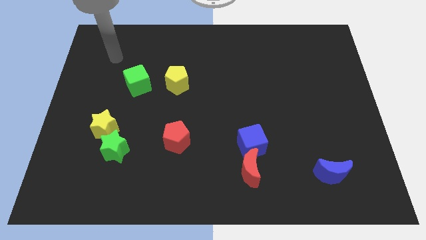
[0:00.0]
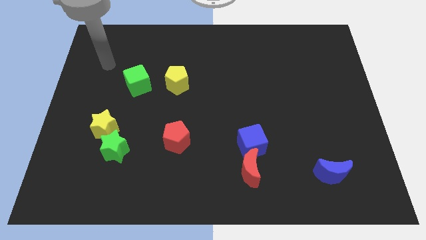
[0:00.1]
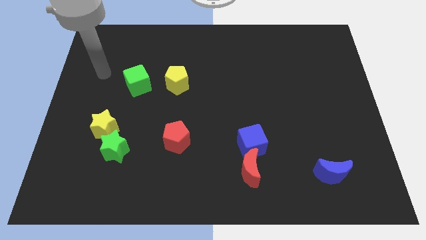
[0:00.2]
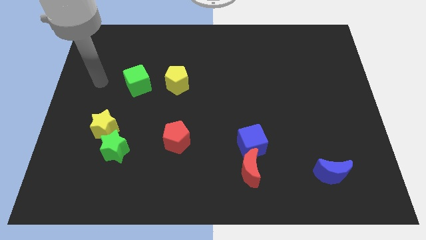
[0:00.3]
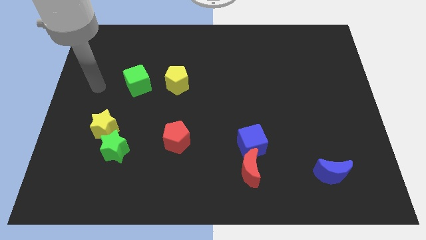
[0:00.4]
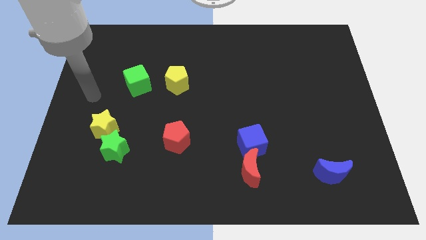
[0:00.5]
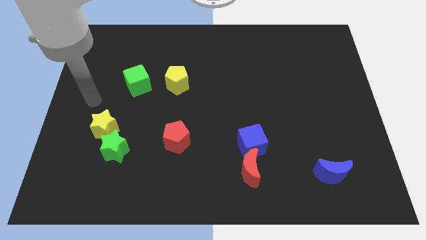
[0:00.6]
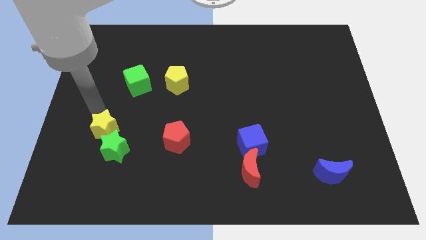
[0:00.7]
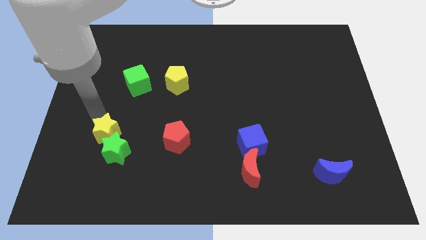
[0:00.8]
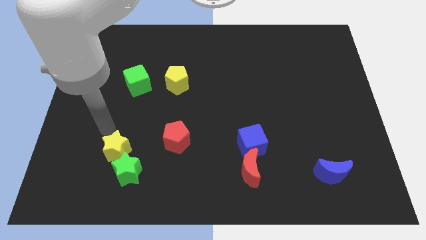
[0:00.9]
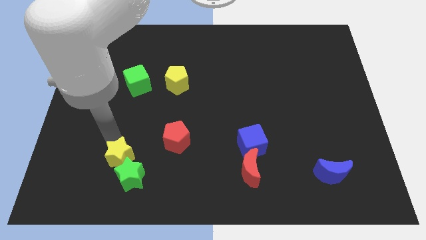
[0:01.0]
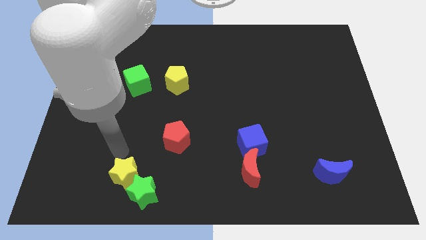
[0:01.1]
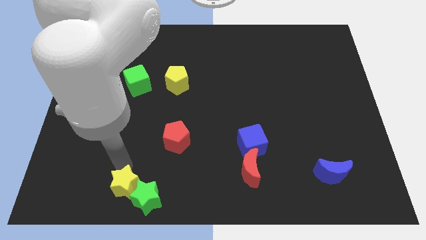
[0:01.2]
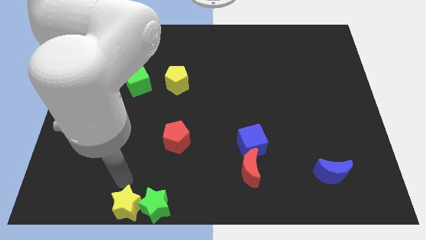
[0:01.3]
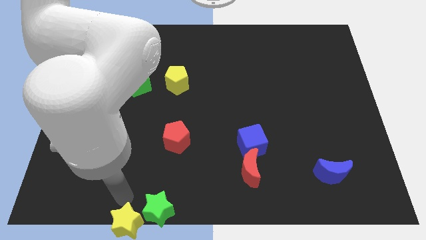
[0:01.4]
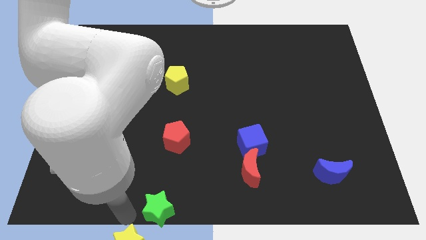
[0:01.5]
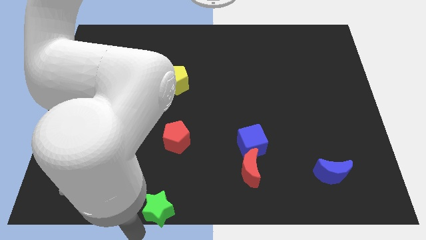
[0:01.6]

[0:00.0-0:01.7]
pull the green star apart from the yellow star

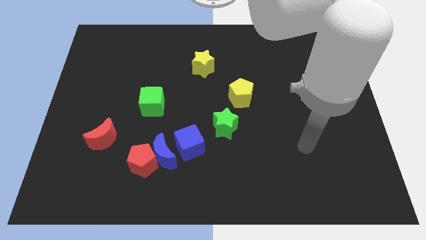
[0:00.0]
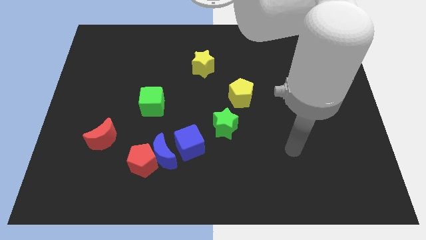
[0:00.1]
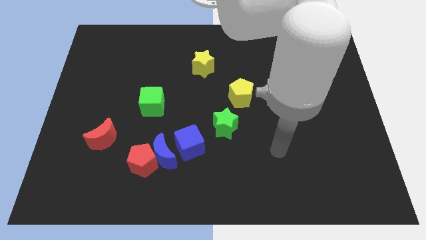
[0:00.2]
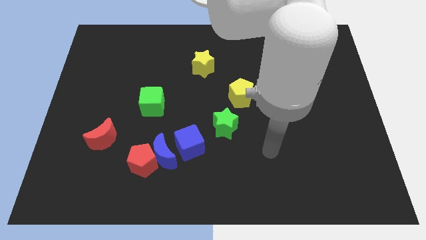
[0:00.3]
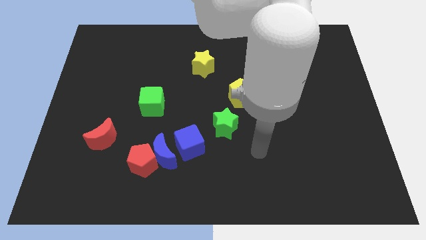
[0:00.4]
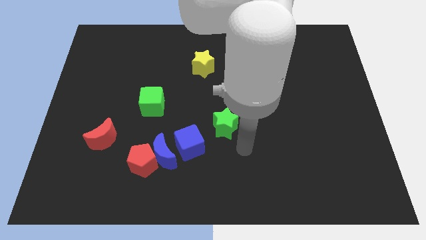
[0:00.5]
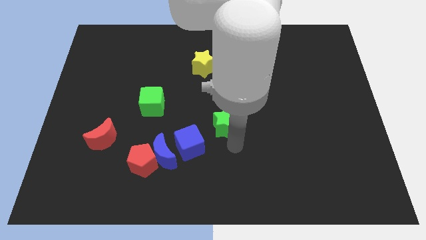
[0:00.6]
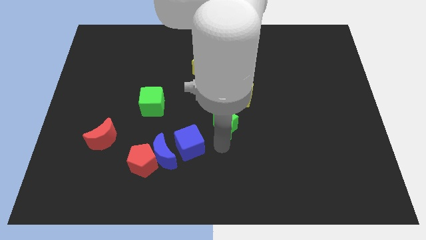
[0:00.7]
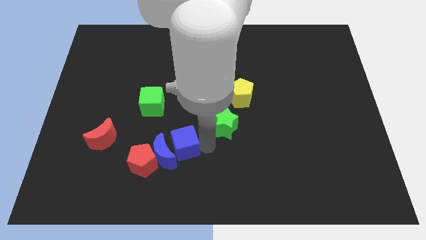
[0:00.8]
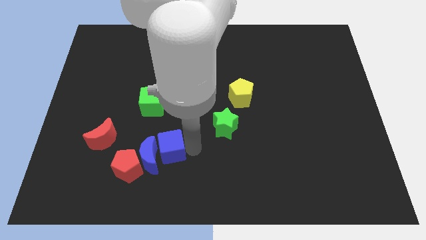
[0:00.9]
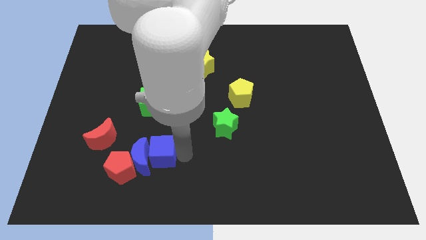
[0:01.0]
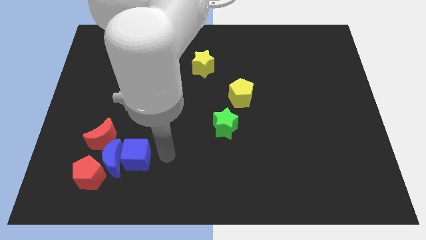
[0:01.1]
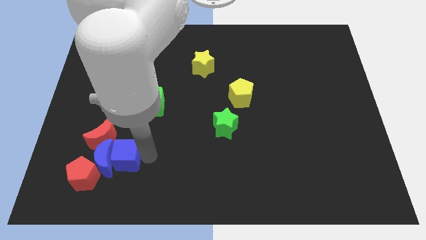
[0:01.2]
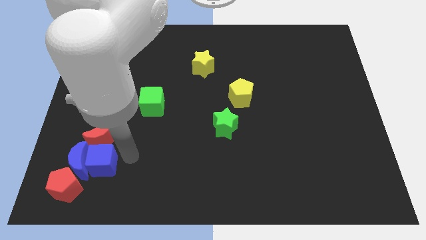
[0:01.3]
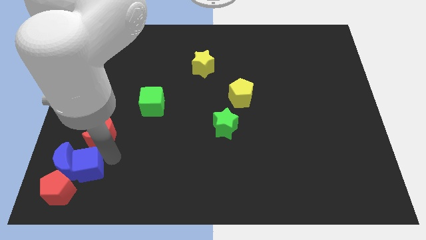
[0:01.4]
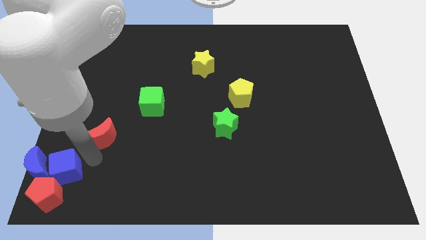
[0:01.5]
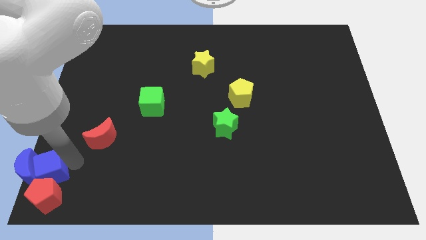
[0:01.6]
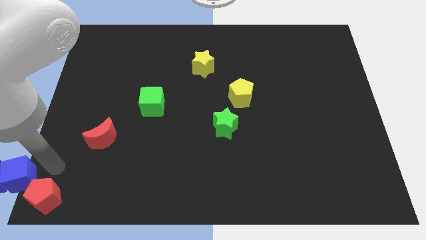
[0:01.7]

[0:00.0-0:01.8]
pull the red pentagon apart from the blue moon

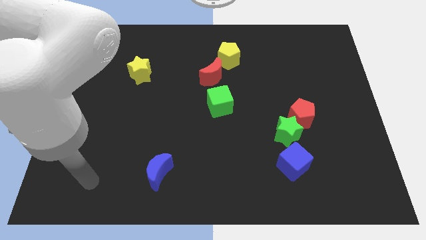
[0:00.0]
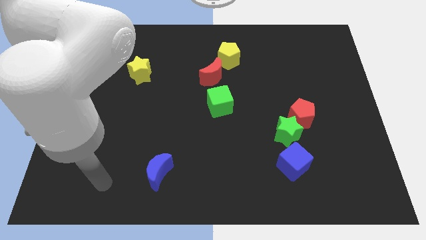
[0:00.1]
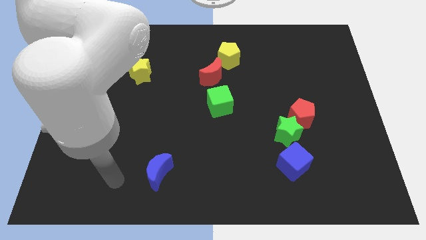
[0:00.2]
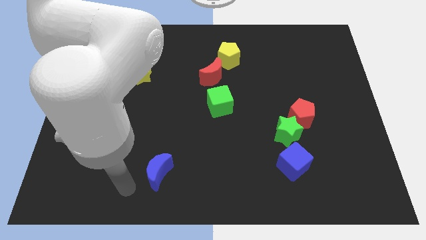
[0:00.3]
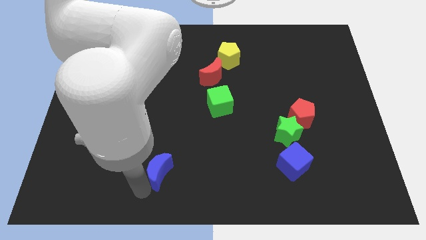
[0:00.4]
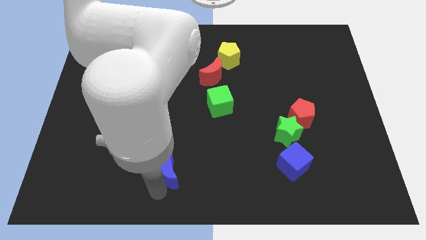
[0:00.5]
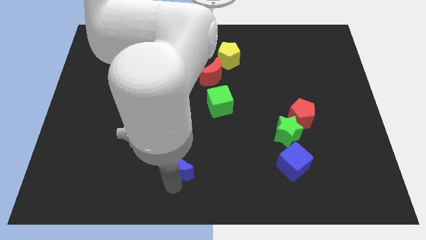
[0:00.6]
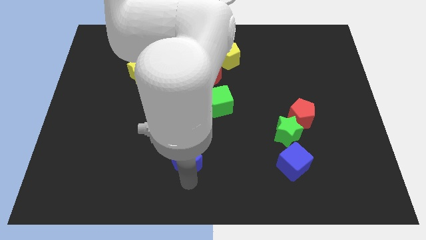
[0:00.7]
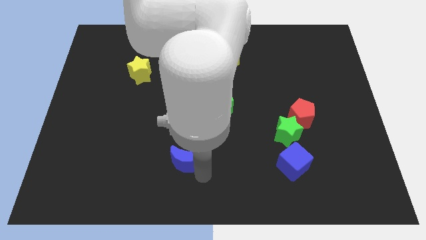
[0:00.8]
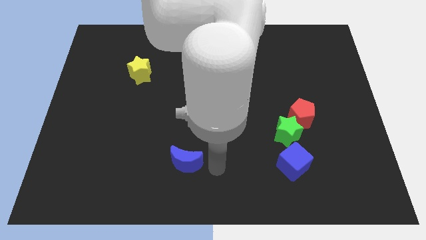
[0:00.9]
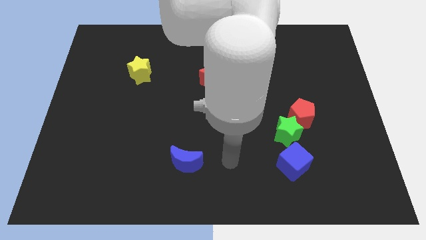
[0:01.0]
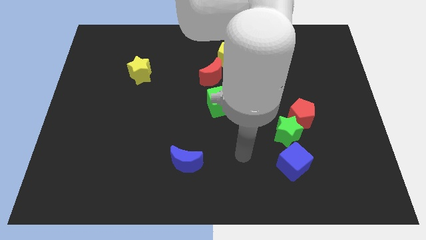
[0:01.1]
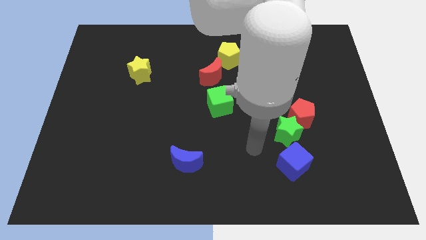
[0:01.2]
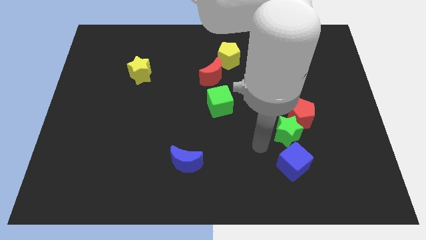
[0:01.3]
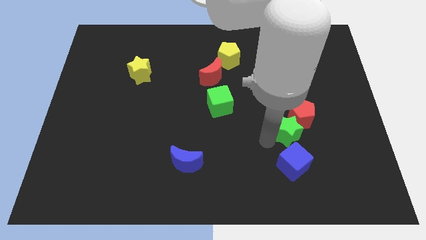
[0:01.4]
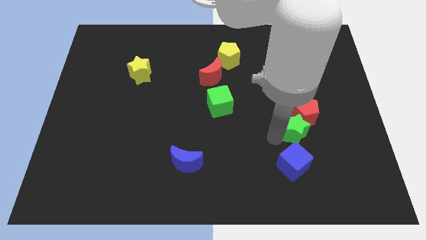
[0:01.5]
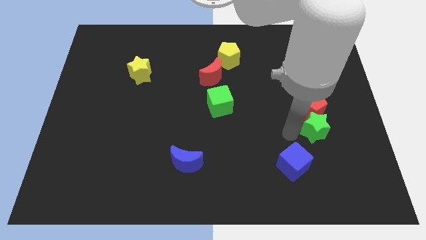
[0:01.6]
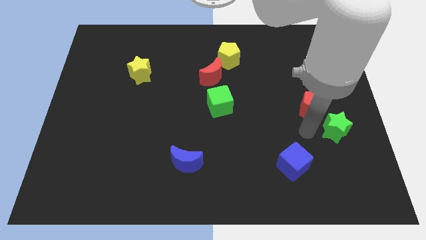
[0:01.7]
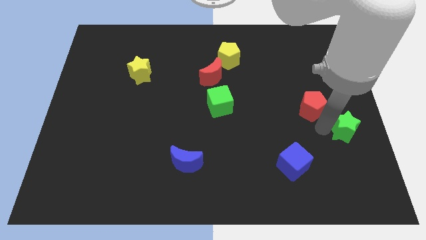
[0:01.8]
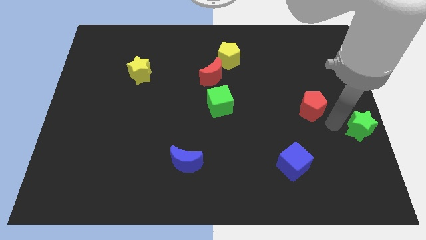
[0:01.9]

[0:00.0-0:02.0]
pull the red pentagon apart from the green star

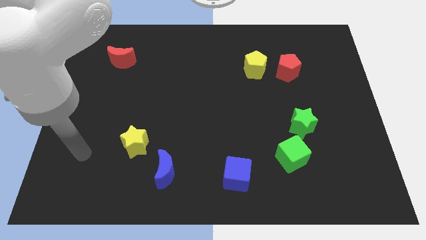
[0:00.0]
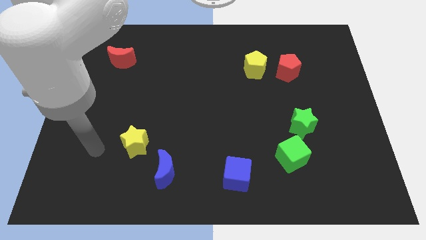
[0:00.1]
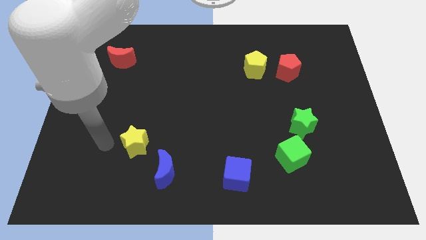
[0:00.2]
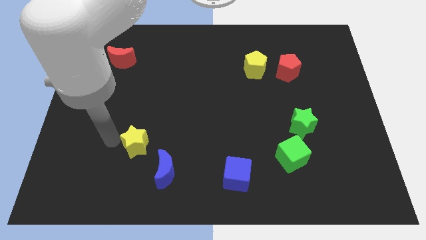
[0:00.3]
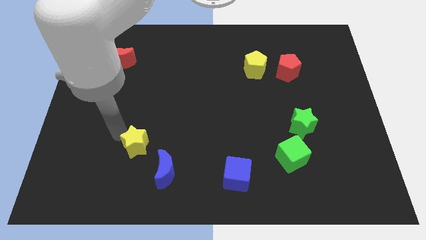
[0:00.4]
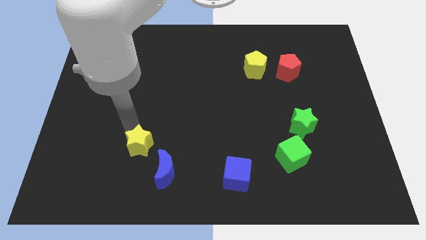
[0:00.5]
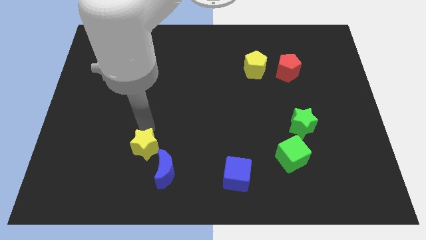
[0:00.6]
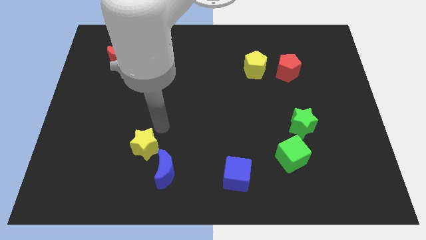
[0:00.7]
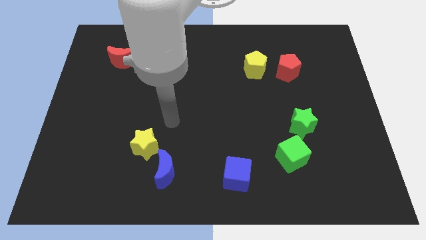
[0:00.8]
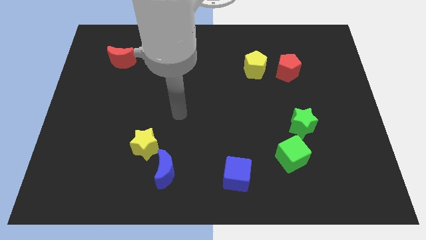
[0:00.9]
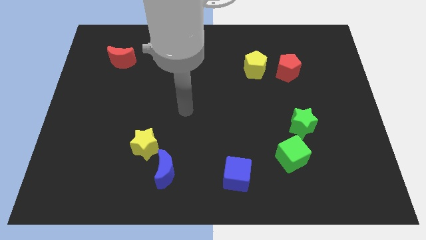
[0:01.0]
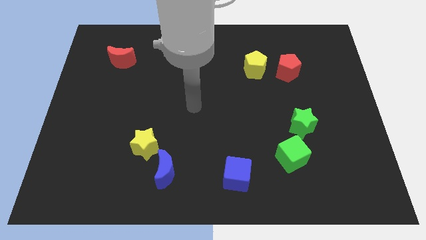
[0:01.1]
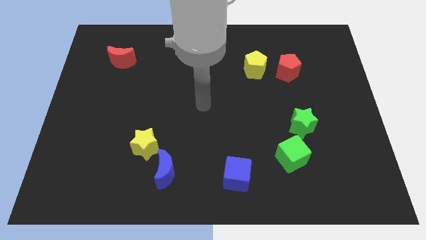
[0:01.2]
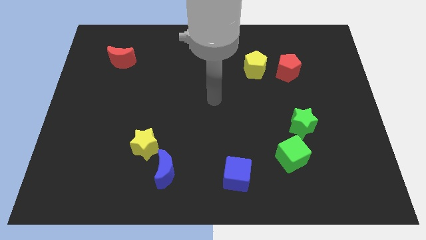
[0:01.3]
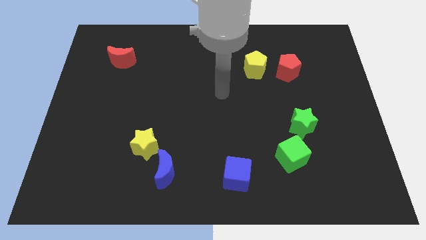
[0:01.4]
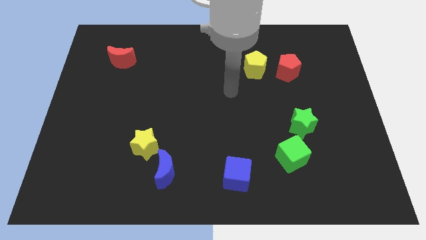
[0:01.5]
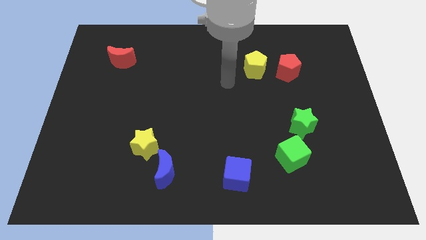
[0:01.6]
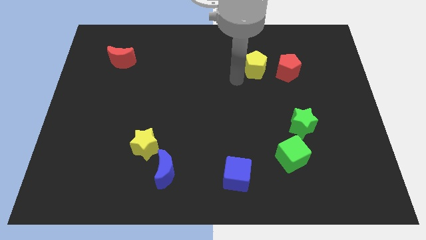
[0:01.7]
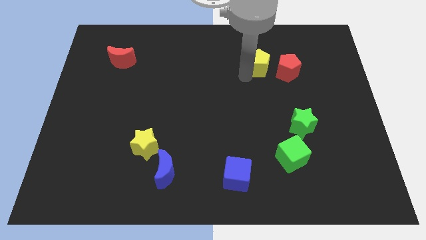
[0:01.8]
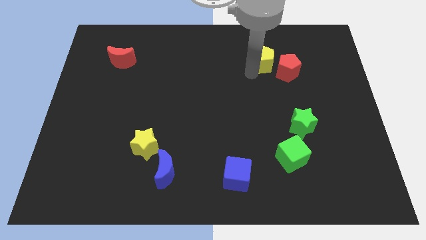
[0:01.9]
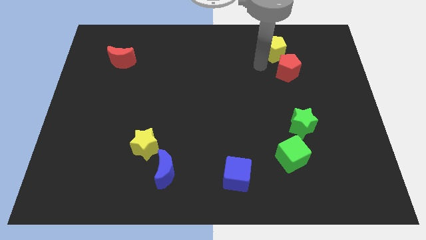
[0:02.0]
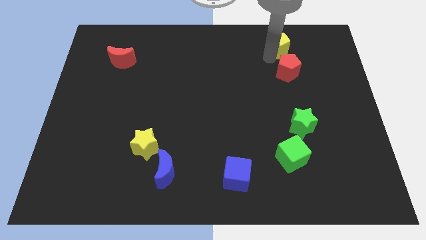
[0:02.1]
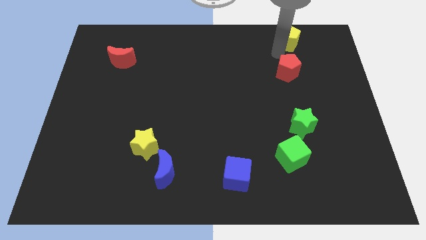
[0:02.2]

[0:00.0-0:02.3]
move the red pentagon away from the yellow pentagon

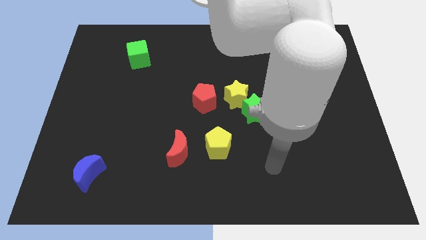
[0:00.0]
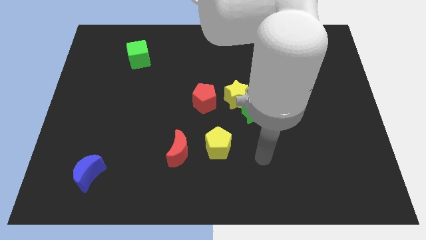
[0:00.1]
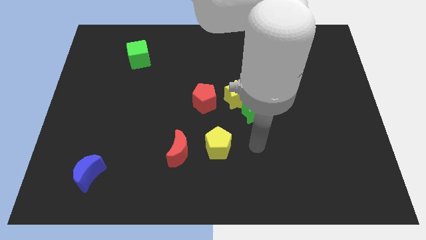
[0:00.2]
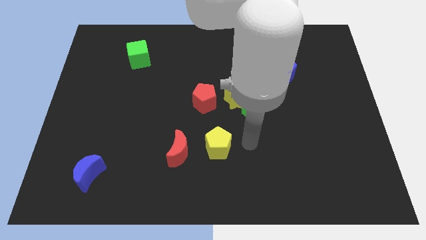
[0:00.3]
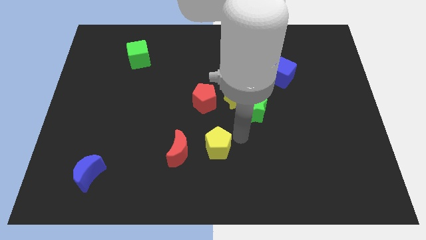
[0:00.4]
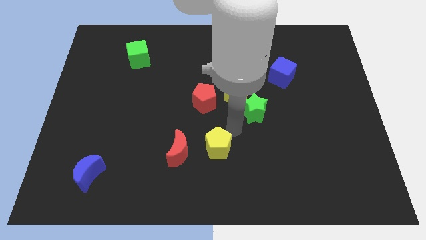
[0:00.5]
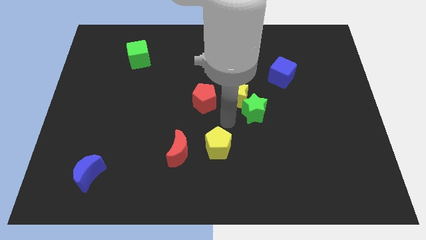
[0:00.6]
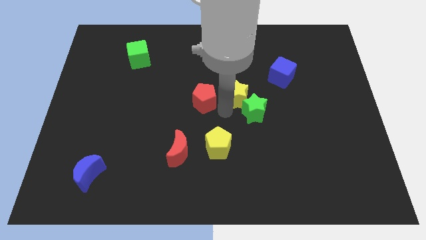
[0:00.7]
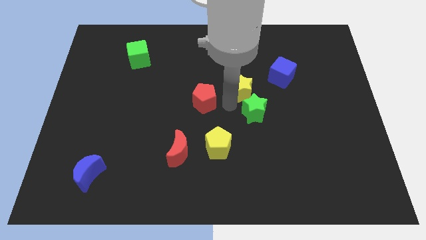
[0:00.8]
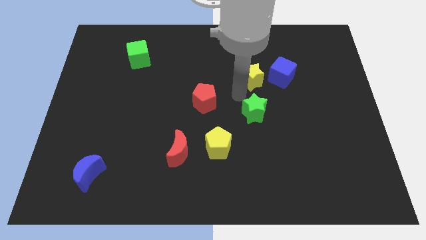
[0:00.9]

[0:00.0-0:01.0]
move the green star away from the yellow star

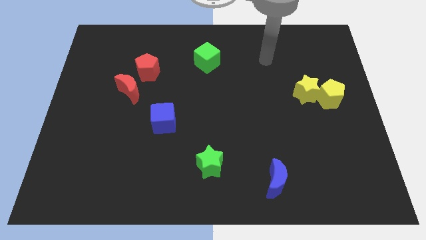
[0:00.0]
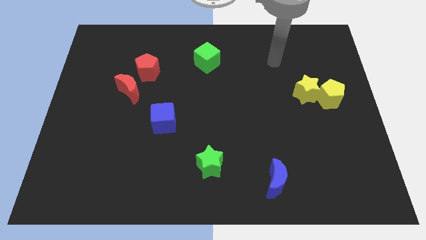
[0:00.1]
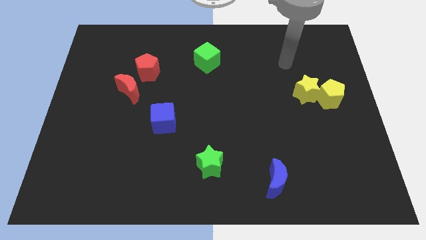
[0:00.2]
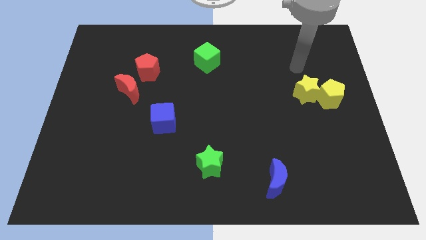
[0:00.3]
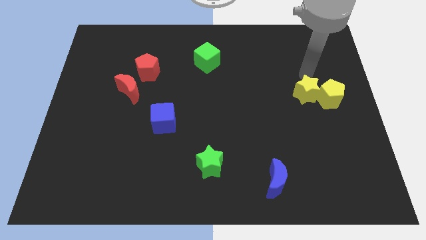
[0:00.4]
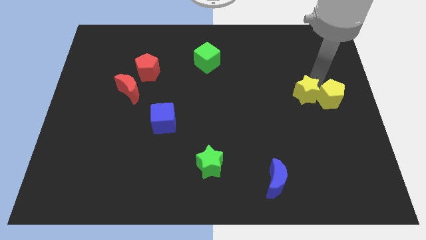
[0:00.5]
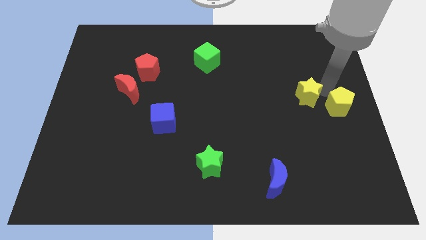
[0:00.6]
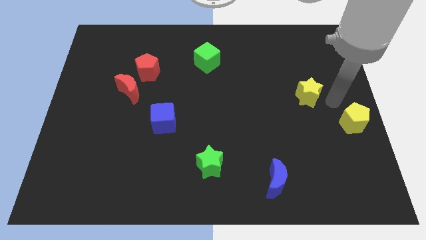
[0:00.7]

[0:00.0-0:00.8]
move the yellow star away from the yellow pentagon
